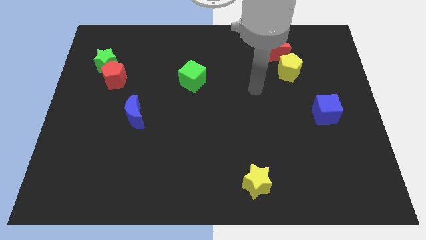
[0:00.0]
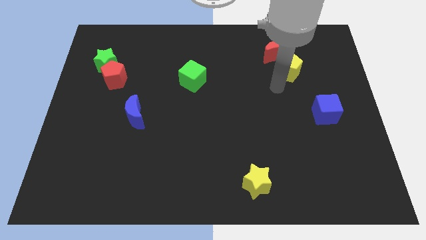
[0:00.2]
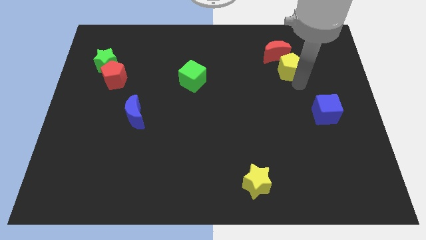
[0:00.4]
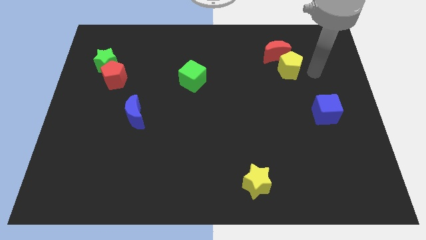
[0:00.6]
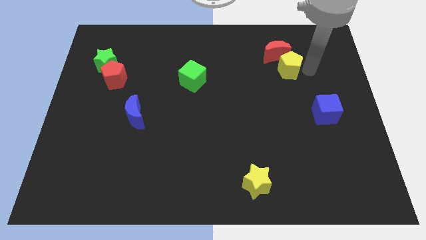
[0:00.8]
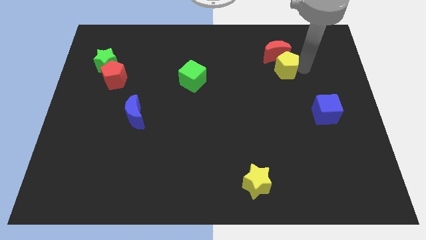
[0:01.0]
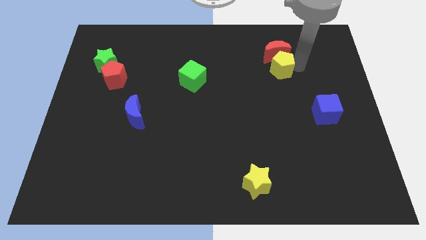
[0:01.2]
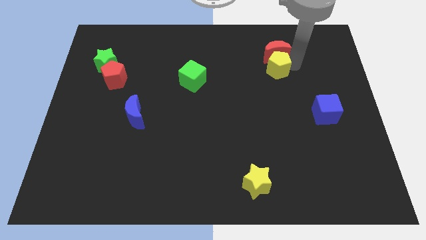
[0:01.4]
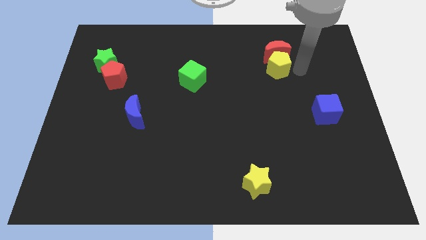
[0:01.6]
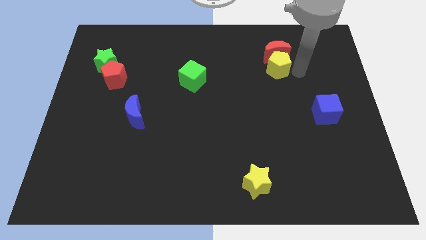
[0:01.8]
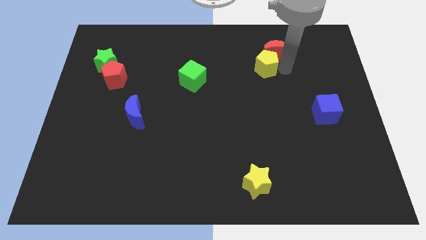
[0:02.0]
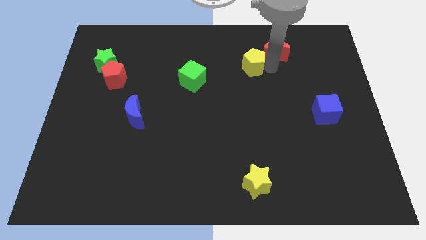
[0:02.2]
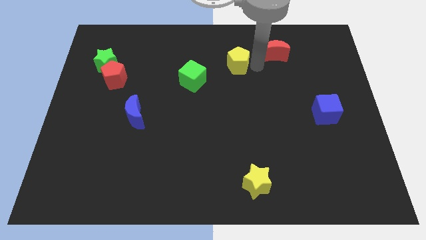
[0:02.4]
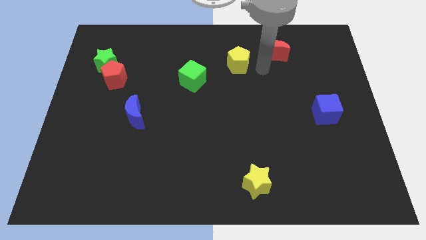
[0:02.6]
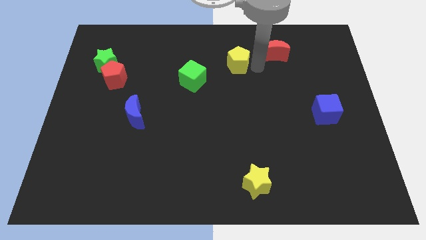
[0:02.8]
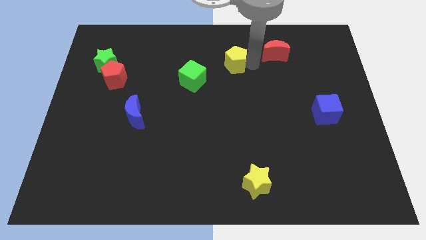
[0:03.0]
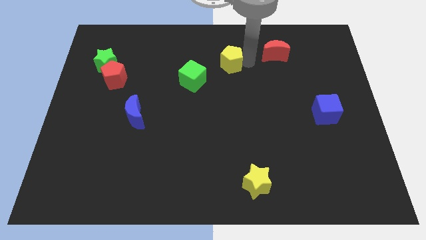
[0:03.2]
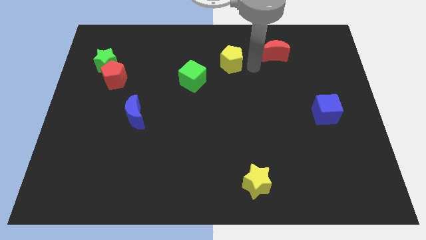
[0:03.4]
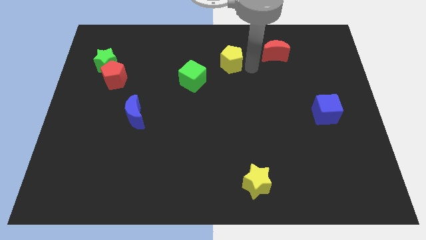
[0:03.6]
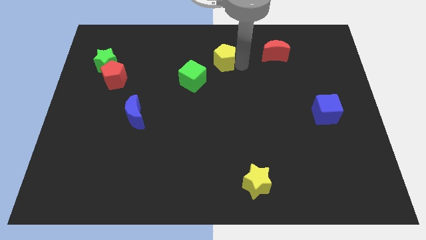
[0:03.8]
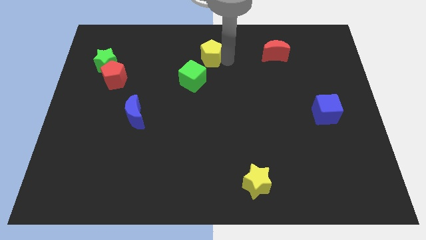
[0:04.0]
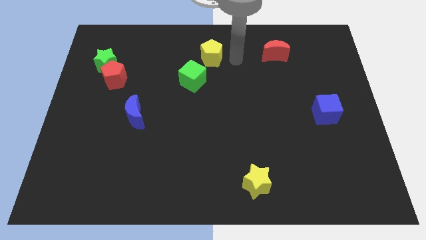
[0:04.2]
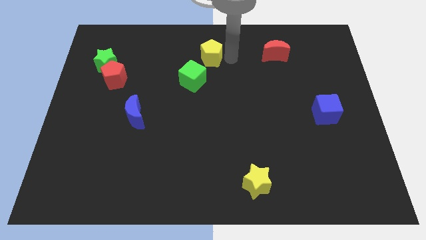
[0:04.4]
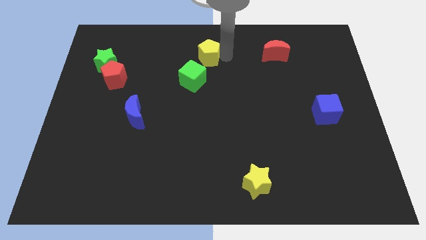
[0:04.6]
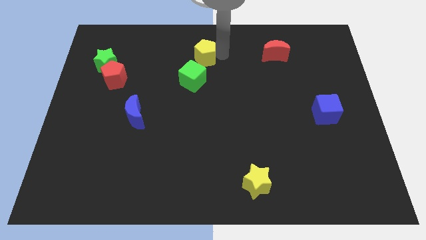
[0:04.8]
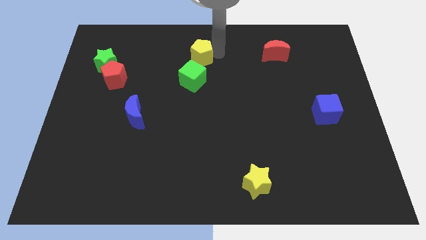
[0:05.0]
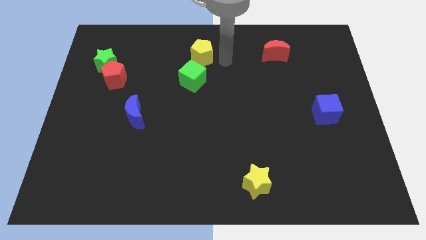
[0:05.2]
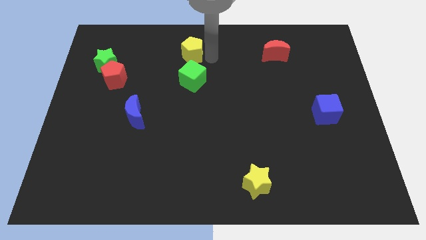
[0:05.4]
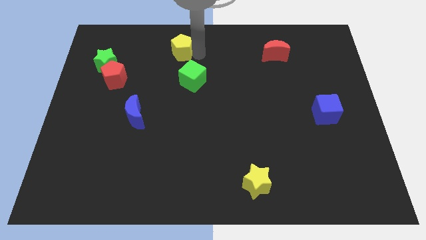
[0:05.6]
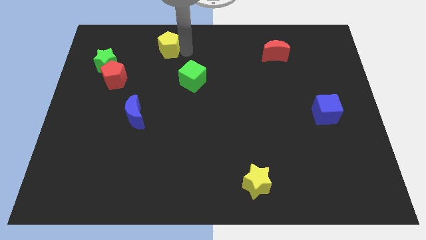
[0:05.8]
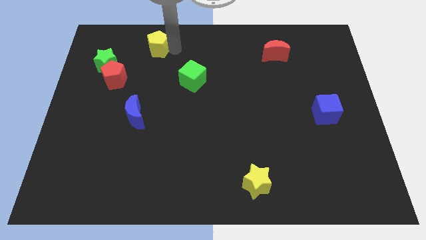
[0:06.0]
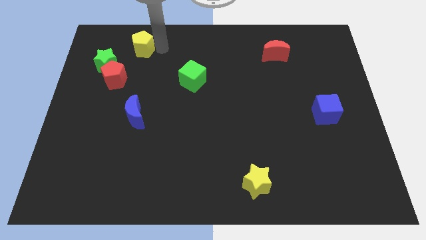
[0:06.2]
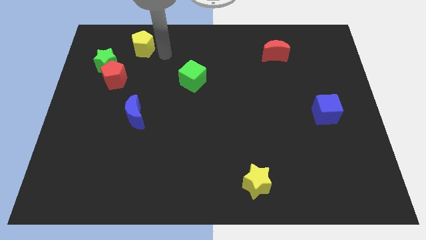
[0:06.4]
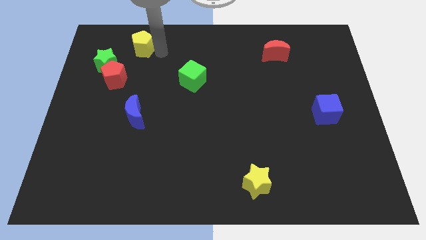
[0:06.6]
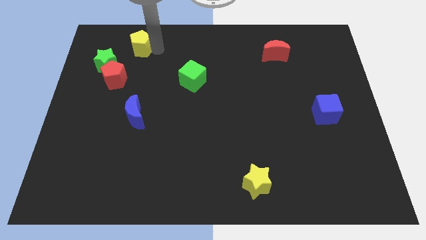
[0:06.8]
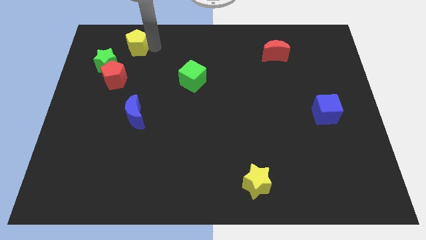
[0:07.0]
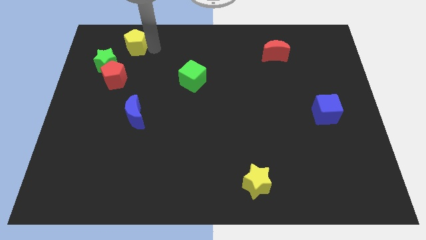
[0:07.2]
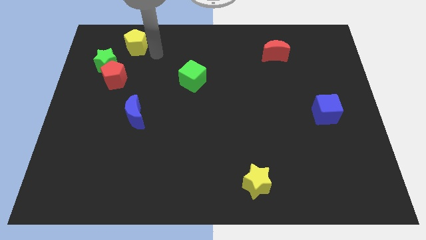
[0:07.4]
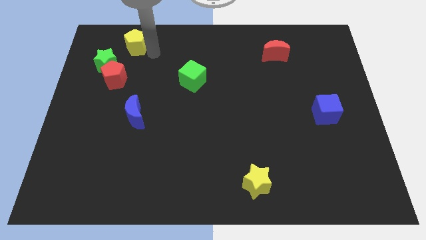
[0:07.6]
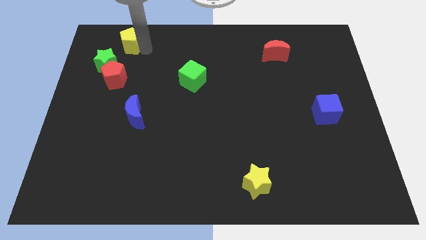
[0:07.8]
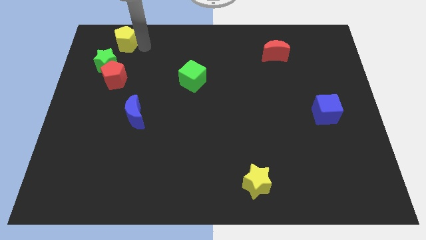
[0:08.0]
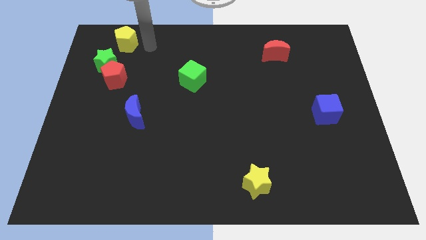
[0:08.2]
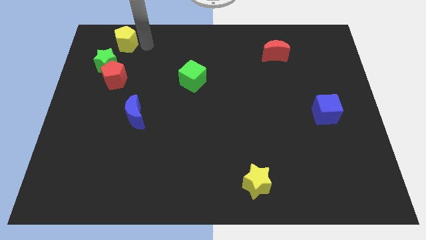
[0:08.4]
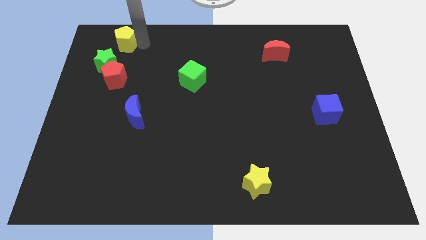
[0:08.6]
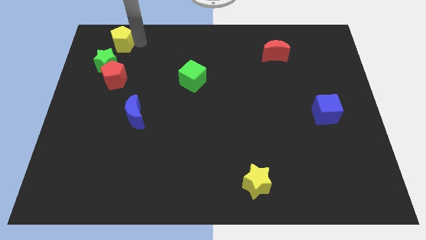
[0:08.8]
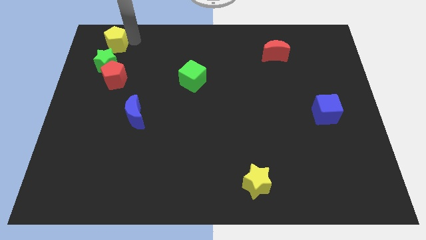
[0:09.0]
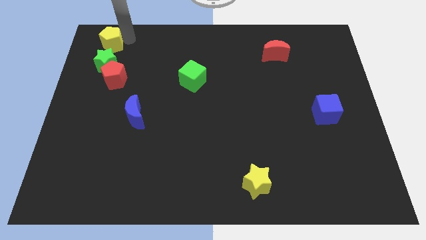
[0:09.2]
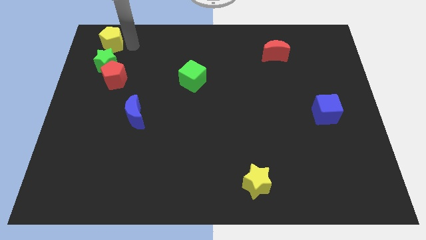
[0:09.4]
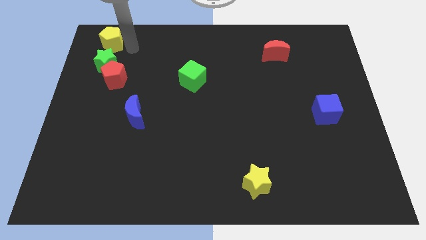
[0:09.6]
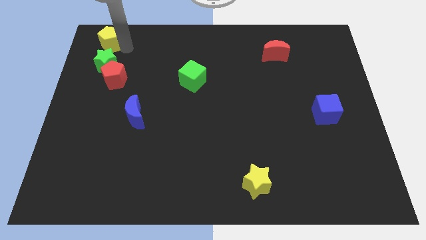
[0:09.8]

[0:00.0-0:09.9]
push the yellow pentagon to the upper left corner

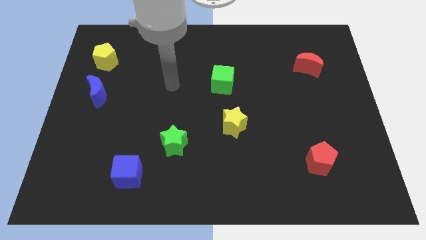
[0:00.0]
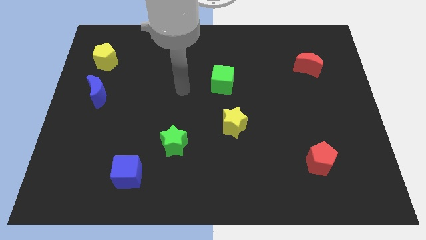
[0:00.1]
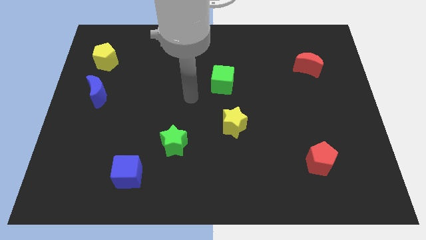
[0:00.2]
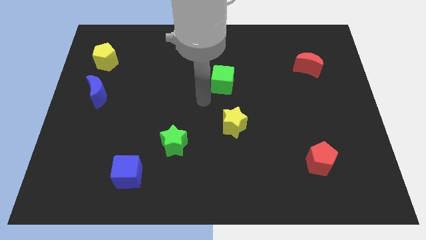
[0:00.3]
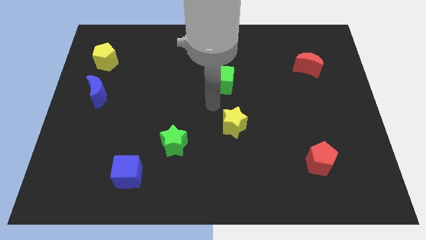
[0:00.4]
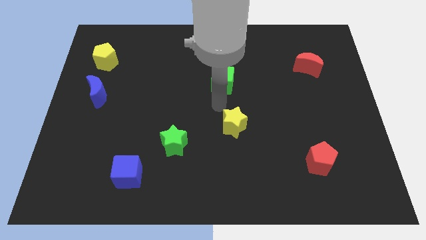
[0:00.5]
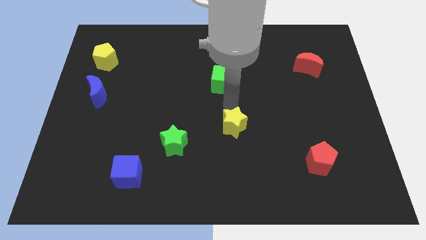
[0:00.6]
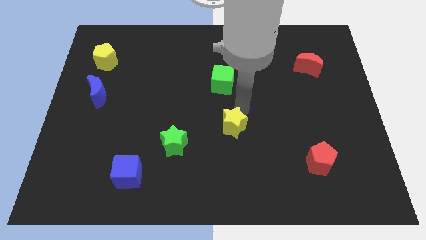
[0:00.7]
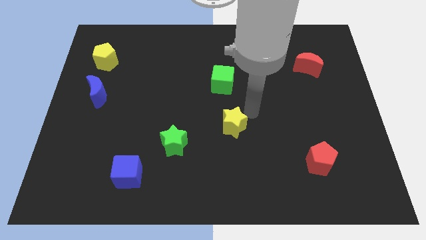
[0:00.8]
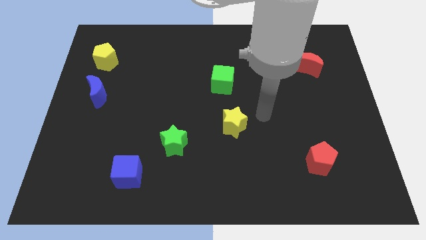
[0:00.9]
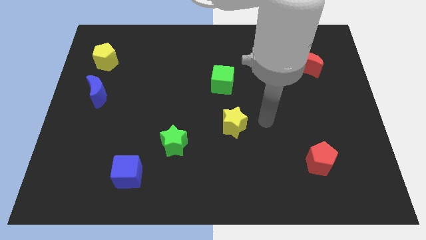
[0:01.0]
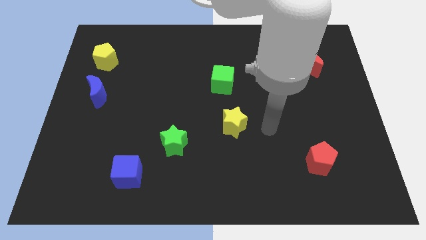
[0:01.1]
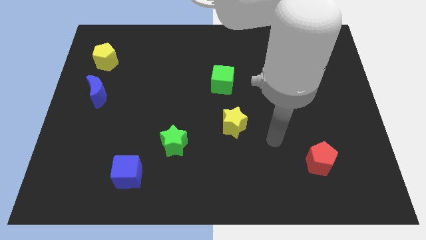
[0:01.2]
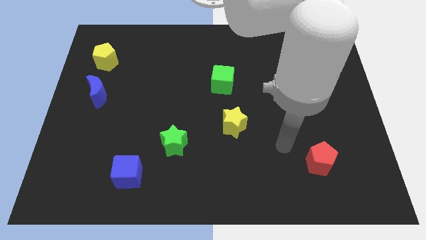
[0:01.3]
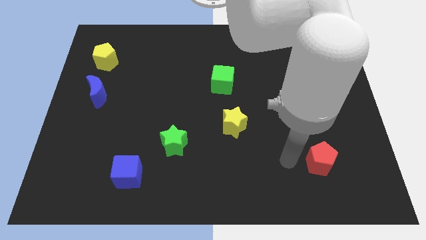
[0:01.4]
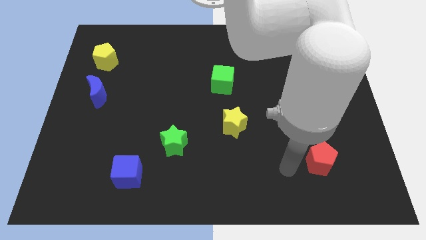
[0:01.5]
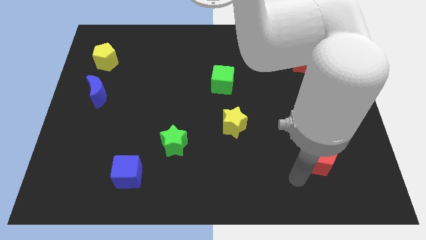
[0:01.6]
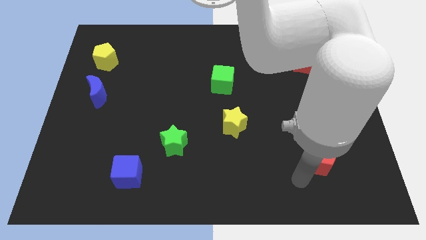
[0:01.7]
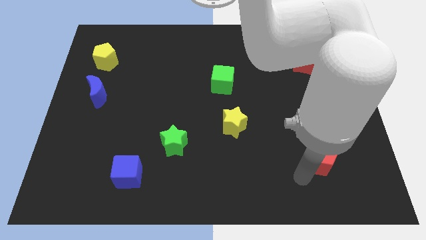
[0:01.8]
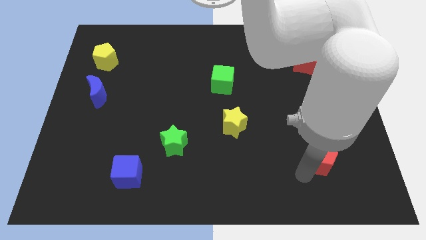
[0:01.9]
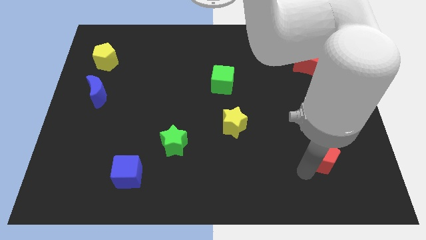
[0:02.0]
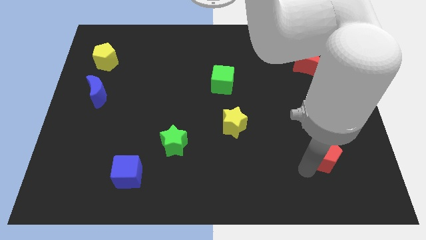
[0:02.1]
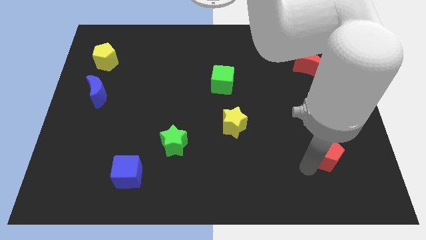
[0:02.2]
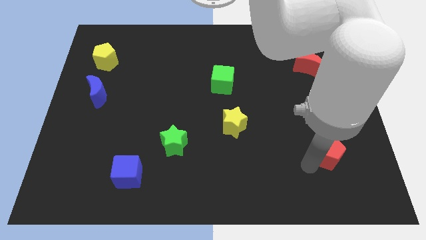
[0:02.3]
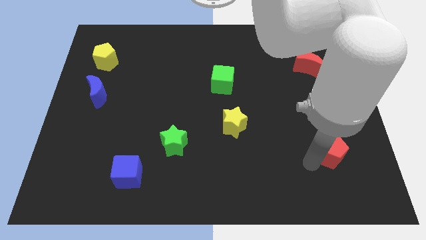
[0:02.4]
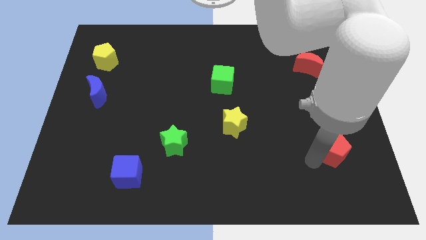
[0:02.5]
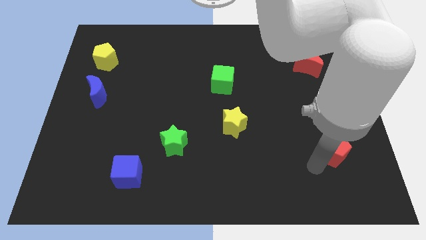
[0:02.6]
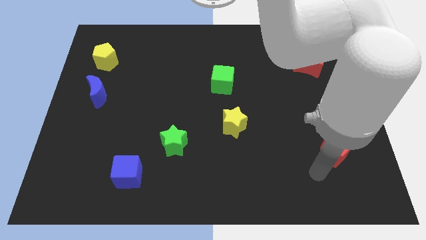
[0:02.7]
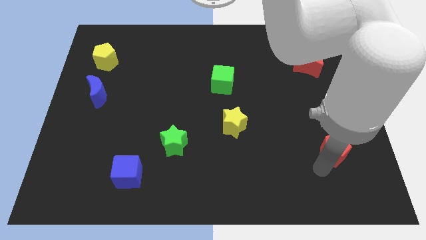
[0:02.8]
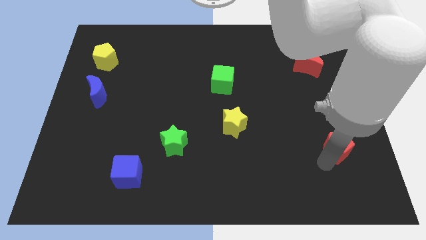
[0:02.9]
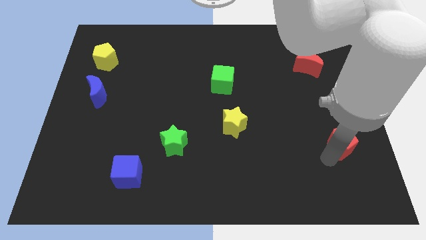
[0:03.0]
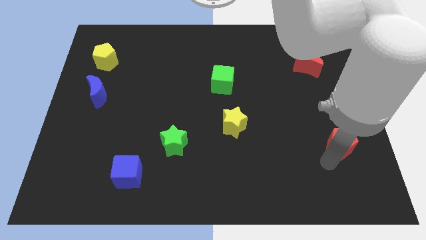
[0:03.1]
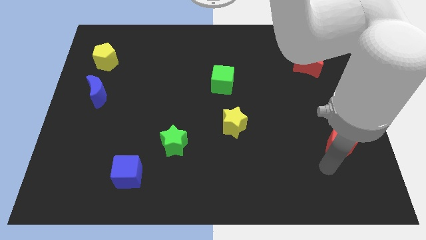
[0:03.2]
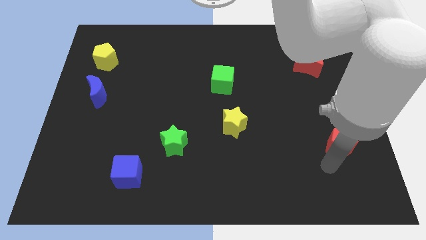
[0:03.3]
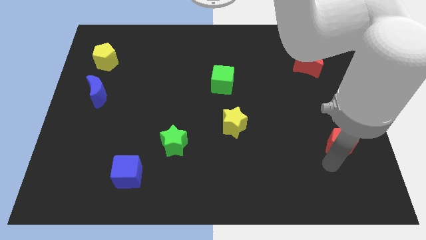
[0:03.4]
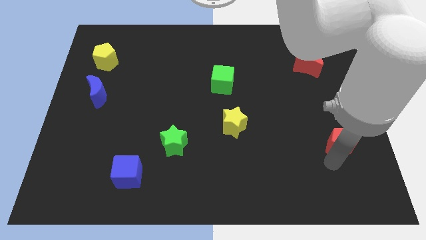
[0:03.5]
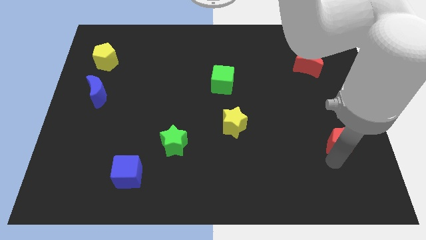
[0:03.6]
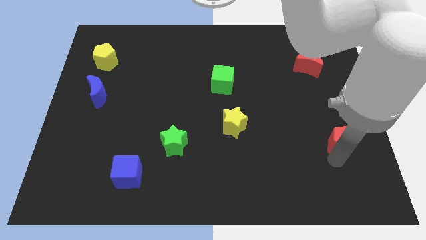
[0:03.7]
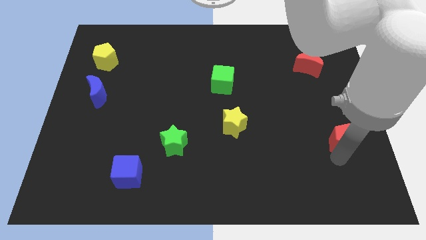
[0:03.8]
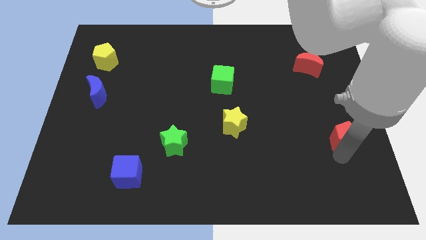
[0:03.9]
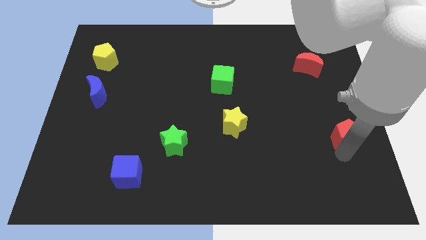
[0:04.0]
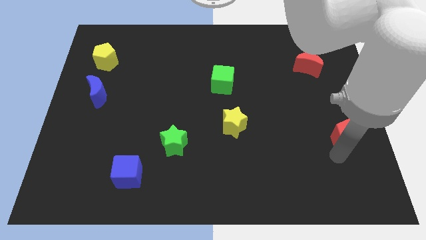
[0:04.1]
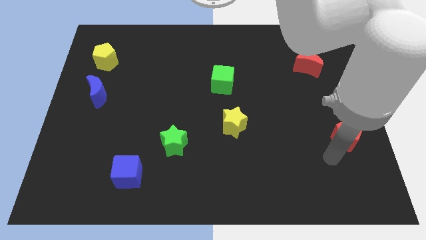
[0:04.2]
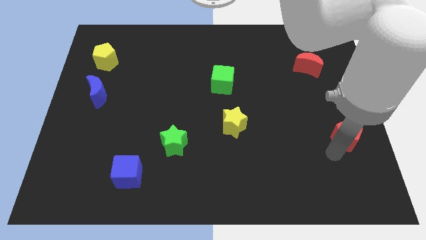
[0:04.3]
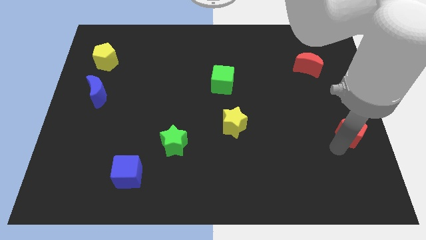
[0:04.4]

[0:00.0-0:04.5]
push the red pentagon to the right side of the board
